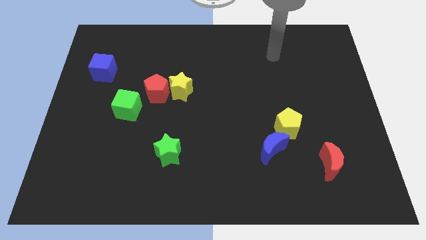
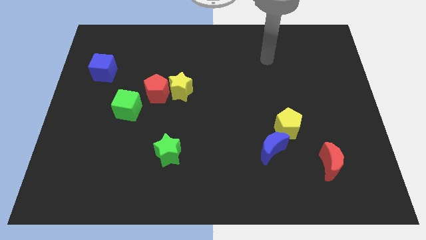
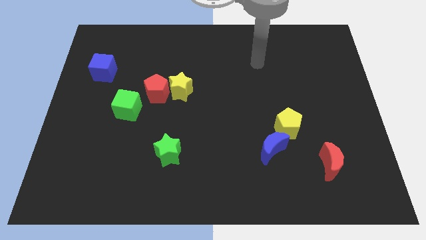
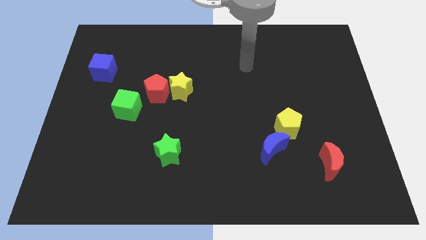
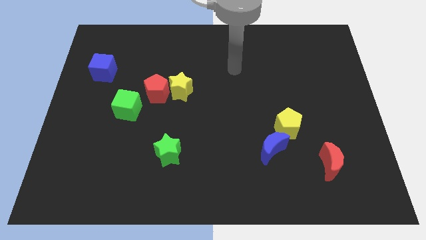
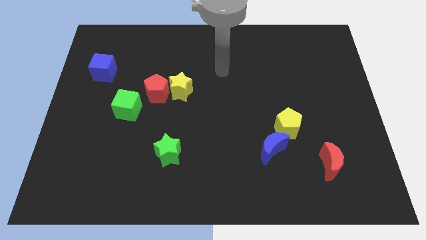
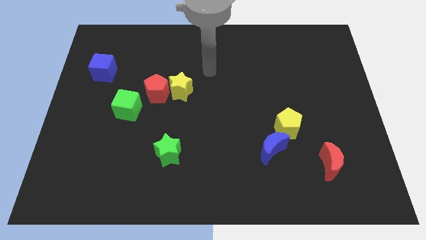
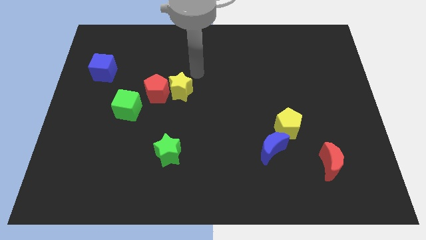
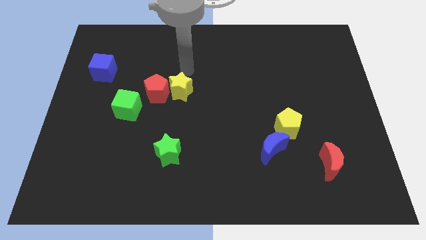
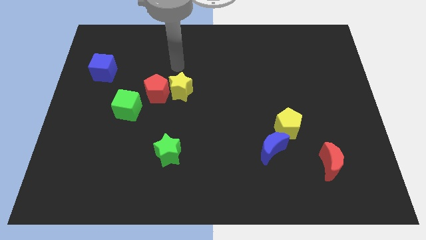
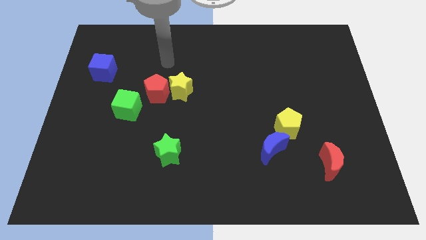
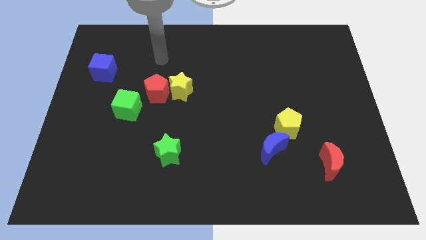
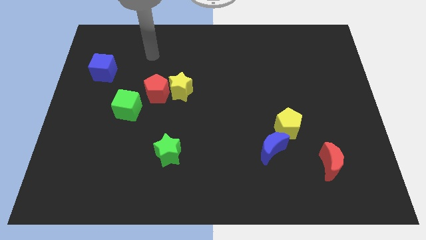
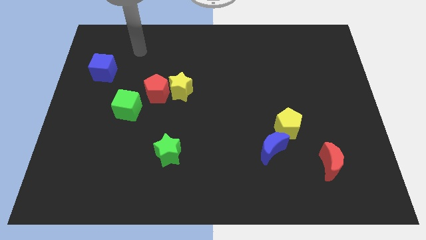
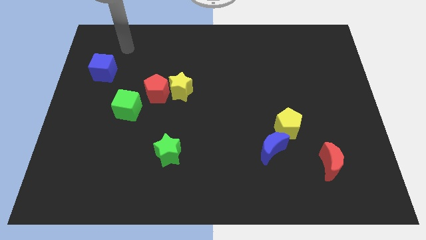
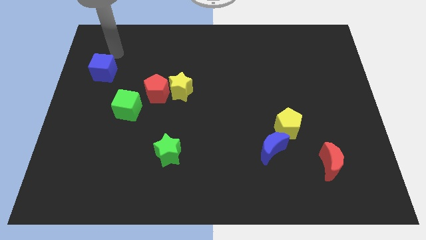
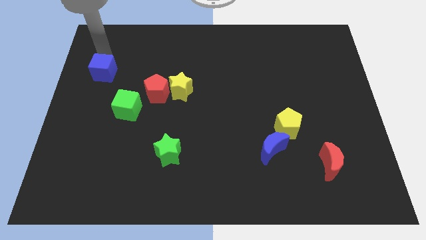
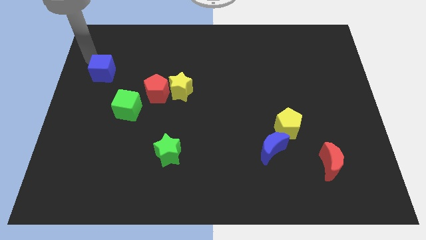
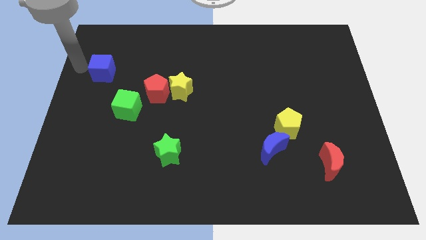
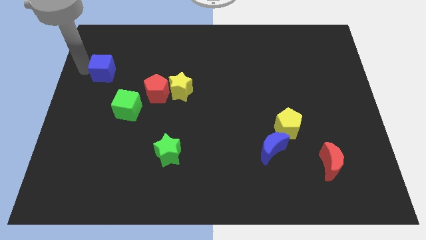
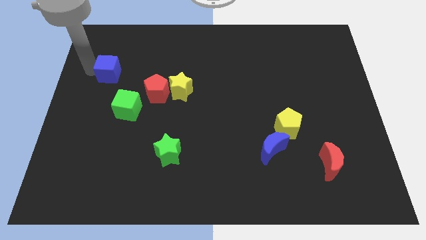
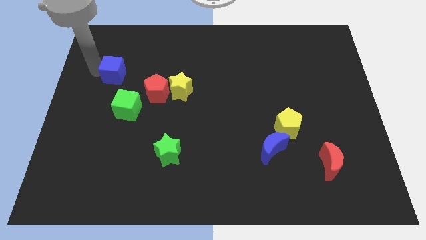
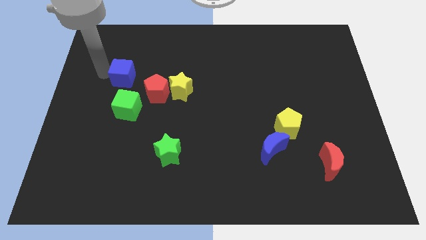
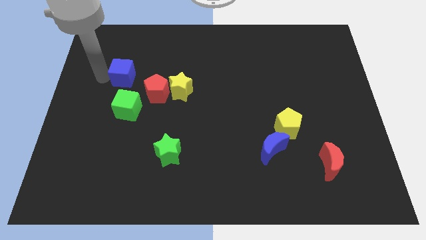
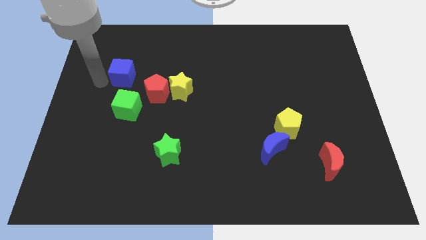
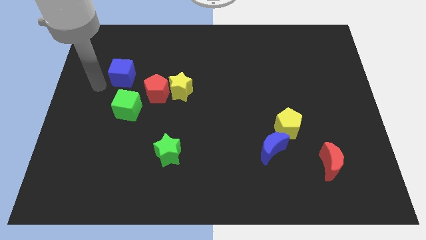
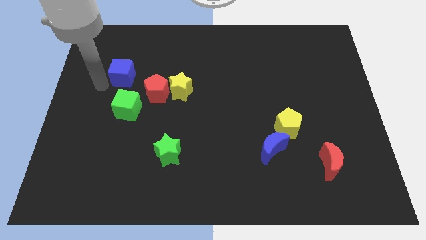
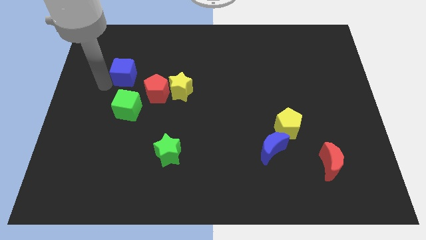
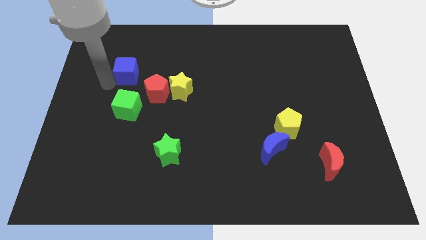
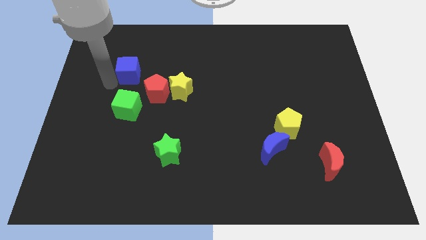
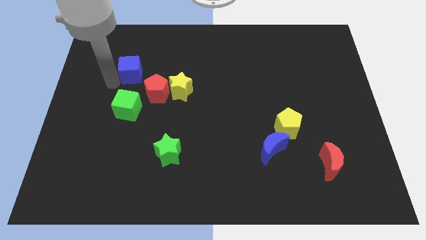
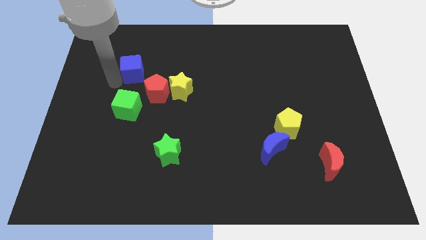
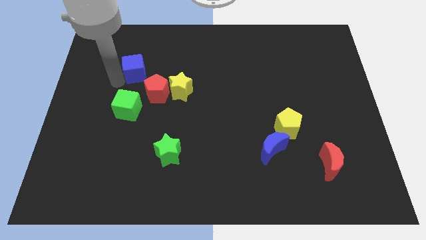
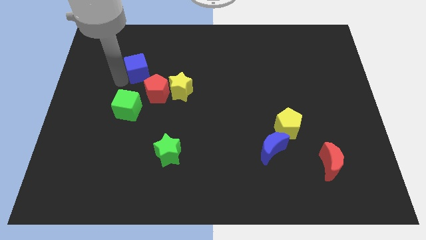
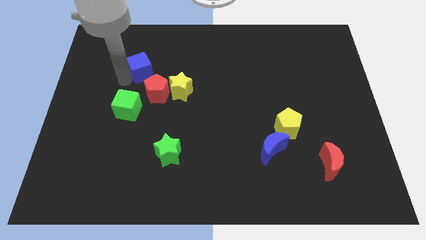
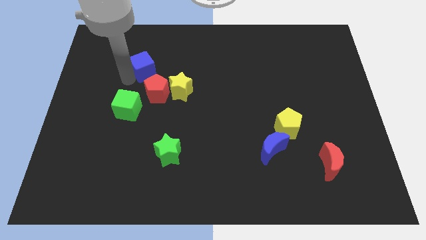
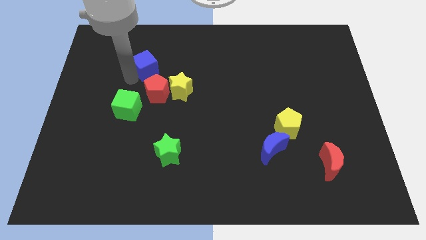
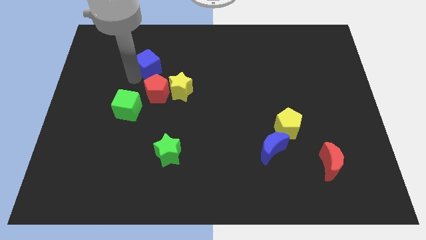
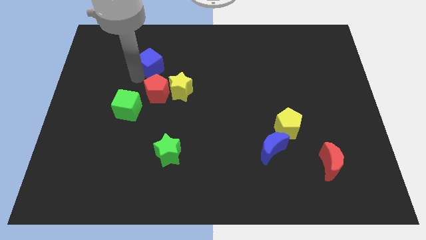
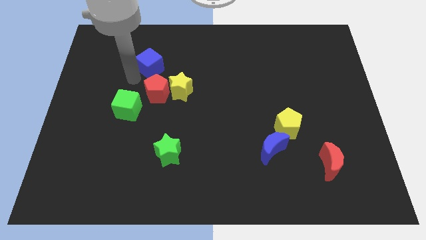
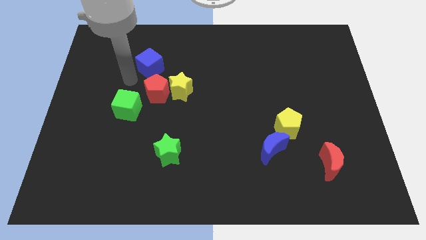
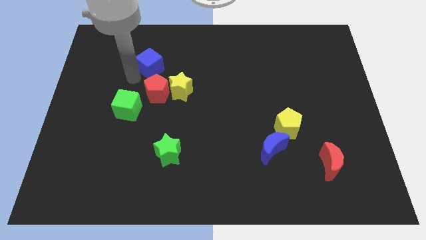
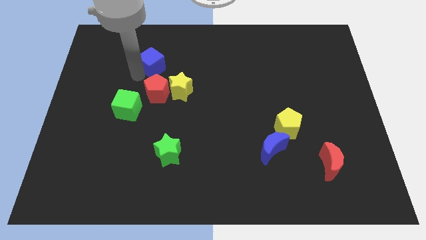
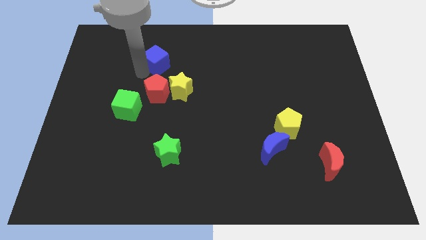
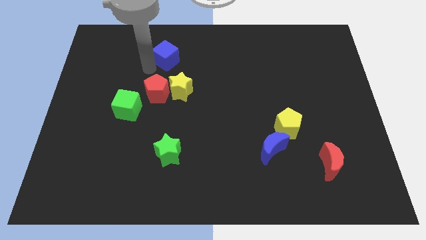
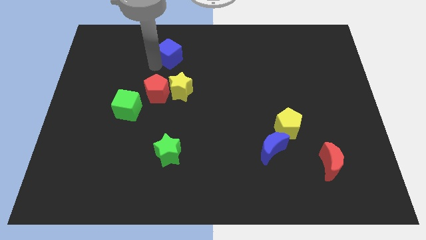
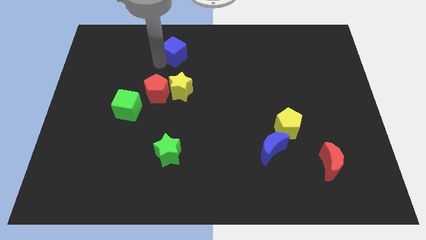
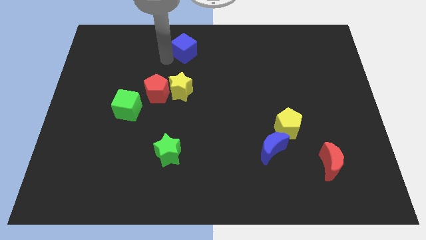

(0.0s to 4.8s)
move the blue cube to the top side

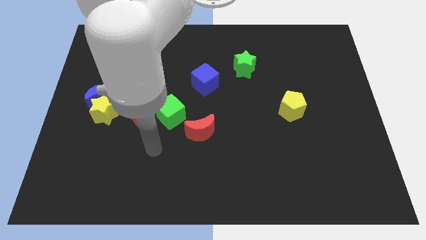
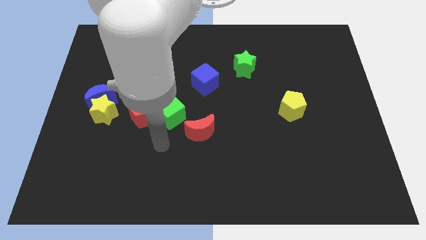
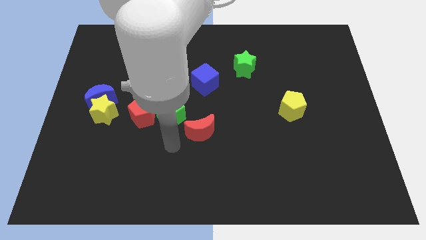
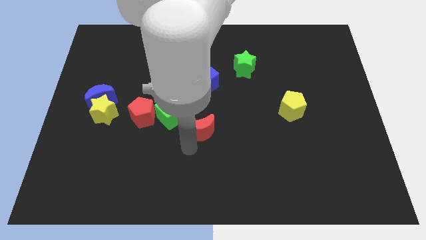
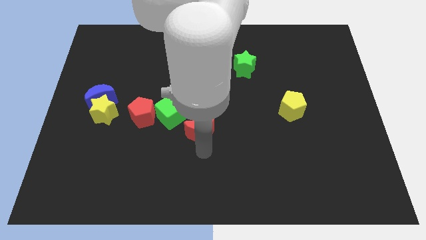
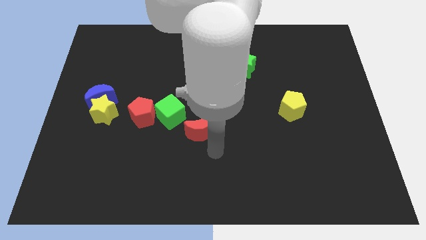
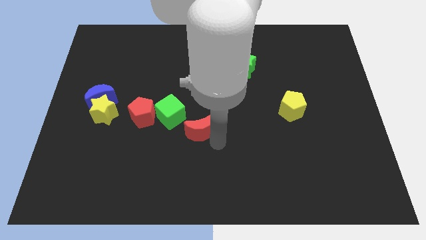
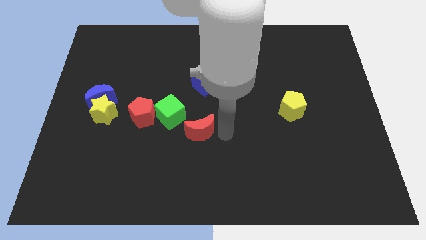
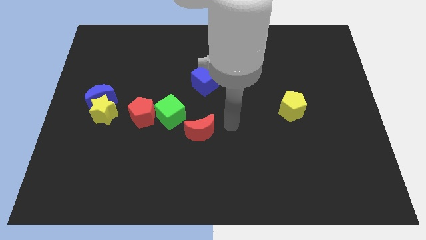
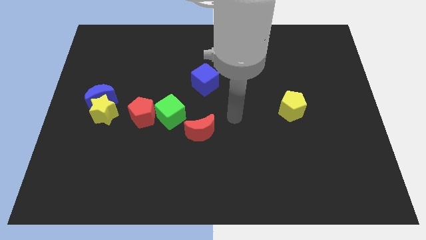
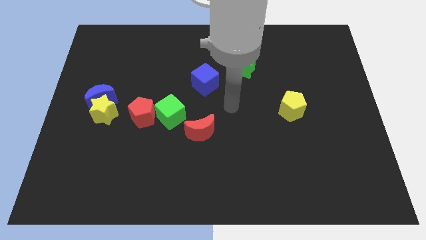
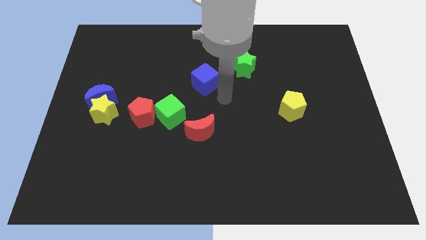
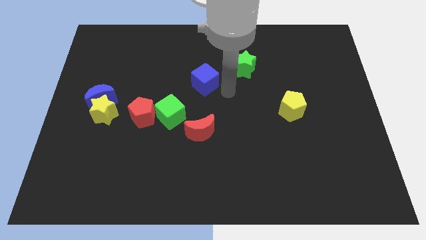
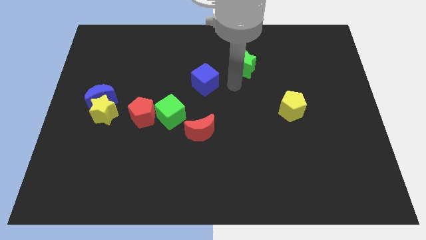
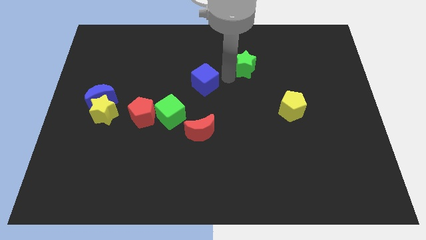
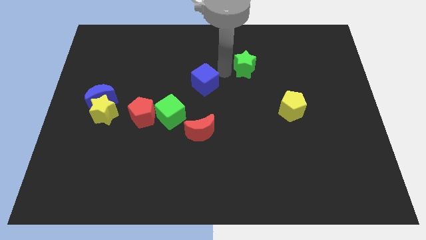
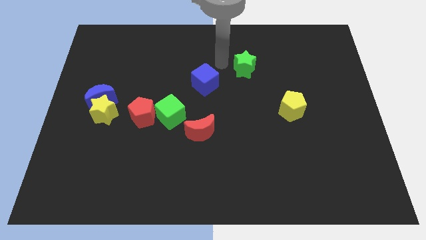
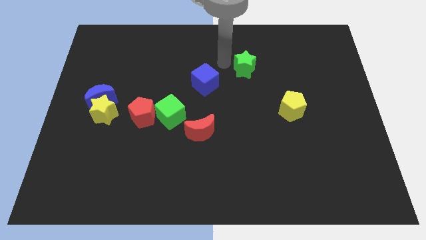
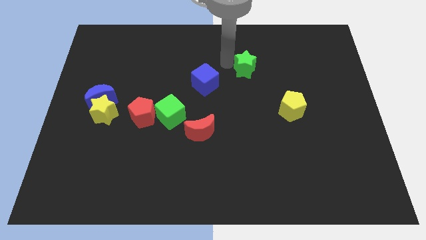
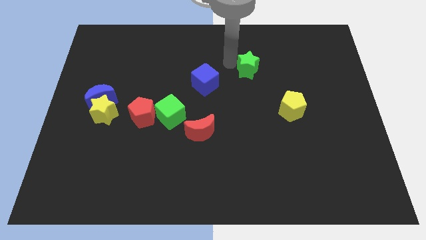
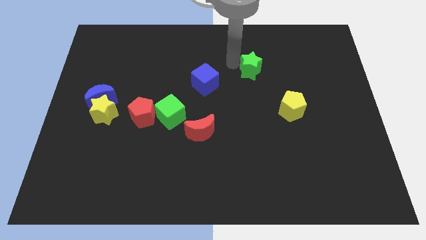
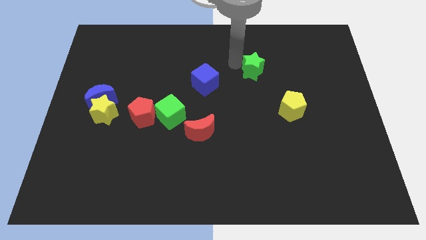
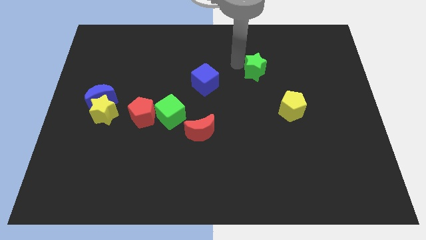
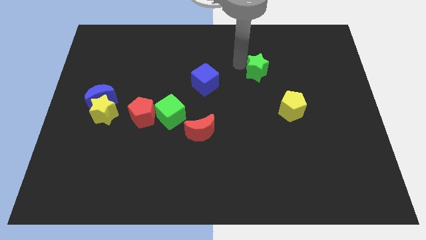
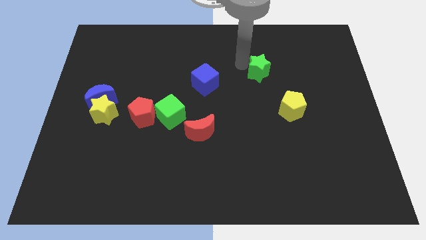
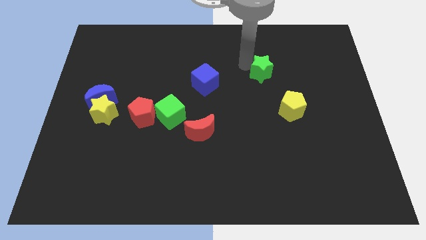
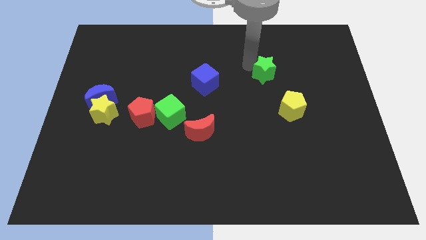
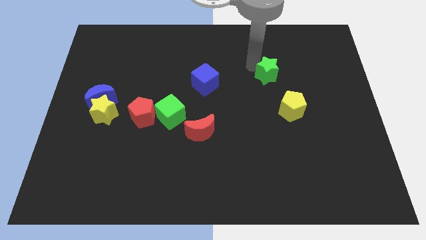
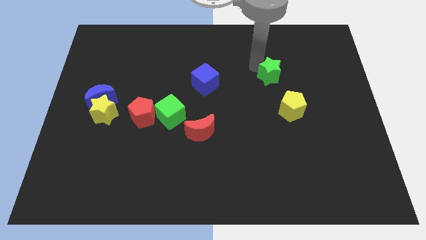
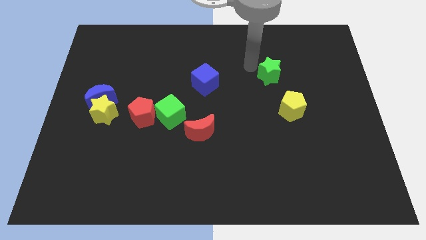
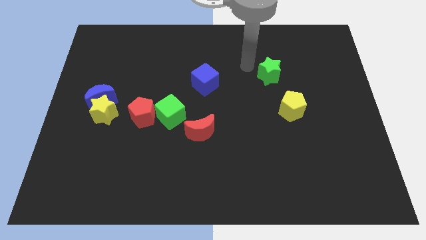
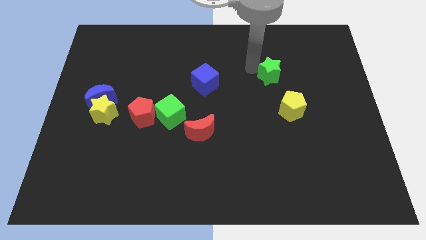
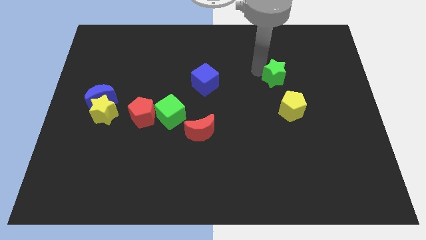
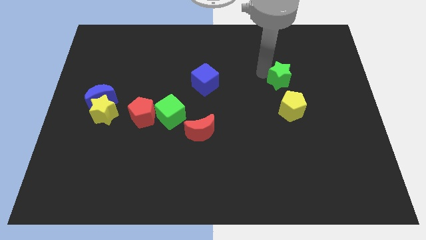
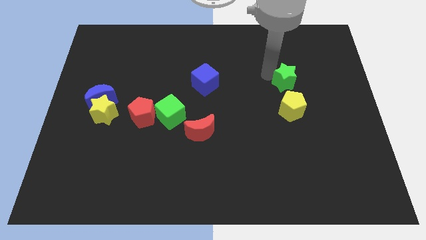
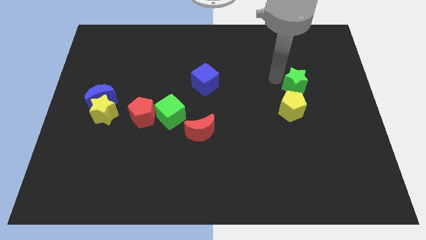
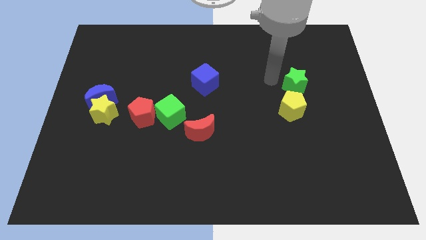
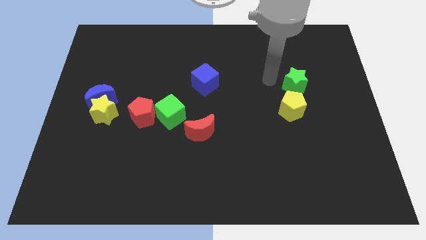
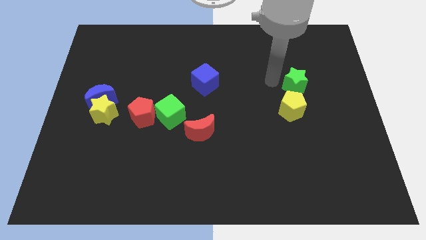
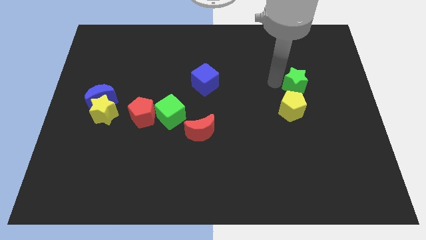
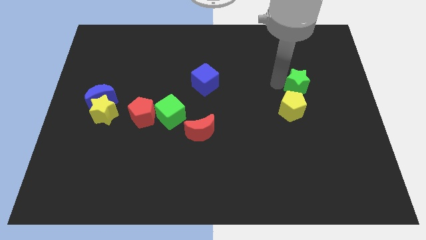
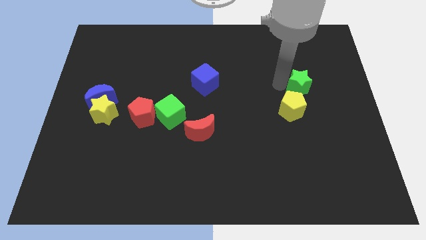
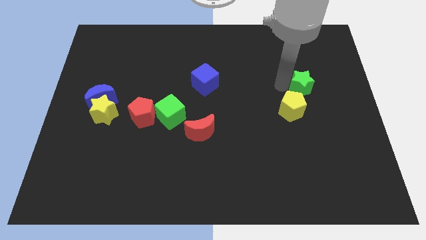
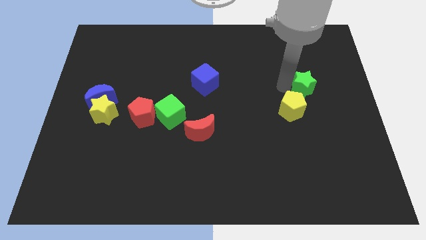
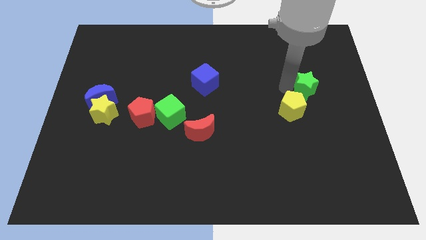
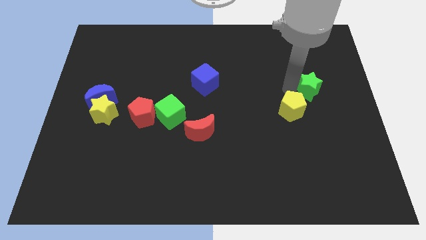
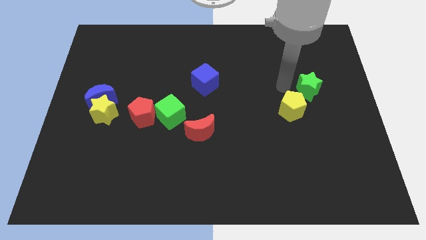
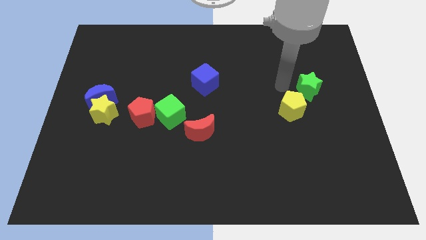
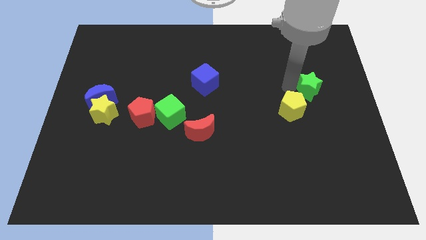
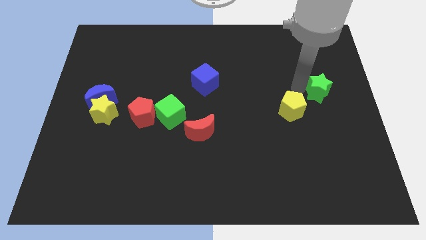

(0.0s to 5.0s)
move the green star to the center right
